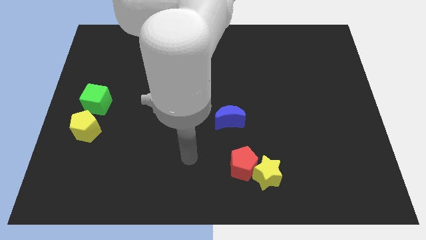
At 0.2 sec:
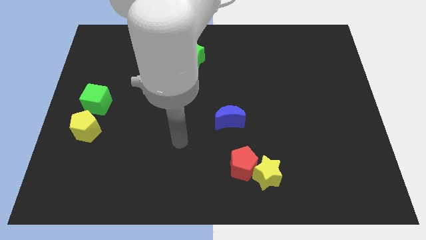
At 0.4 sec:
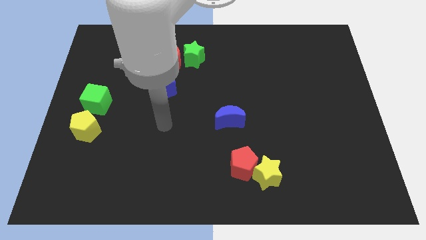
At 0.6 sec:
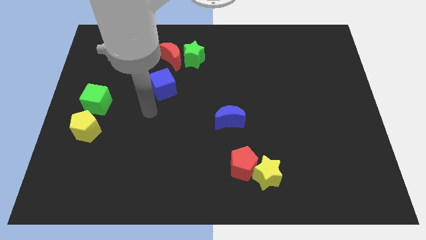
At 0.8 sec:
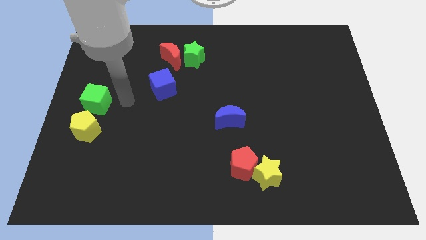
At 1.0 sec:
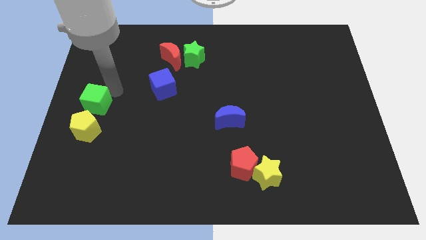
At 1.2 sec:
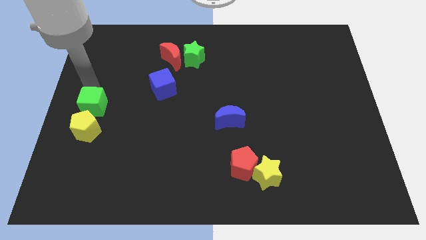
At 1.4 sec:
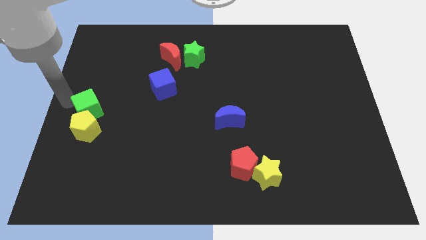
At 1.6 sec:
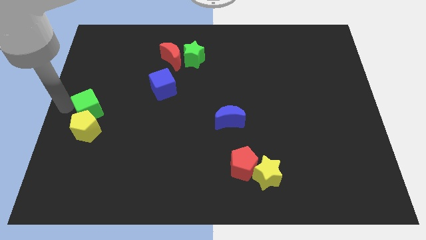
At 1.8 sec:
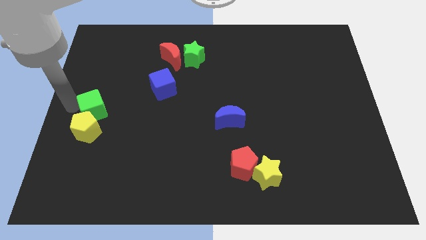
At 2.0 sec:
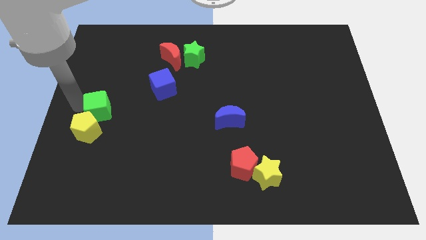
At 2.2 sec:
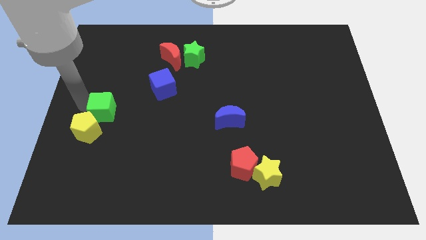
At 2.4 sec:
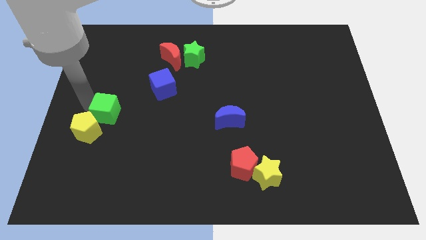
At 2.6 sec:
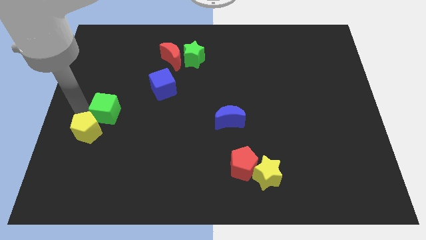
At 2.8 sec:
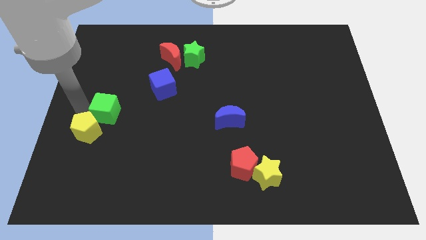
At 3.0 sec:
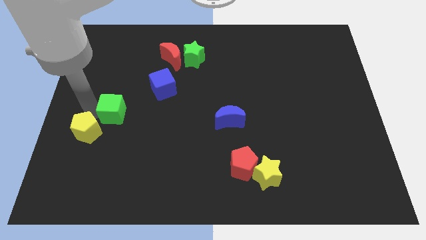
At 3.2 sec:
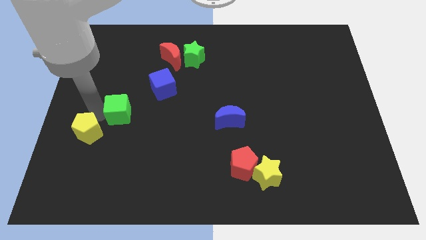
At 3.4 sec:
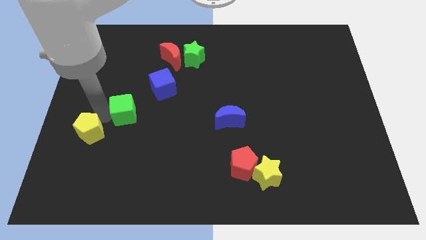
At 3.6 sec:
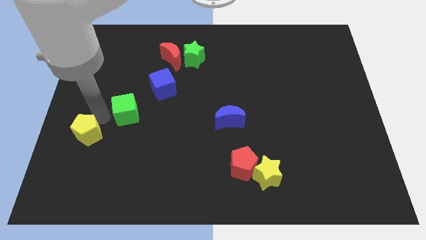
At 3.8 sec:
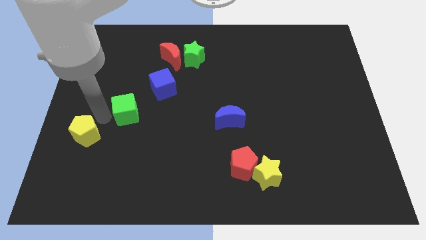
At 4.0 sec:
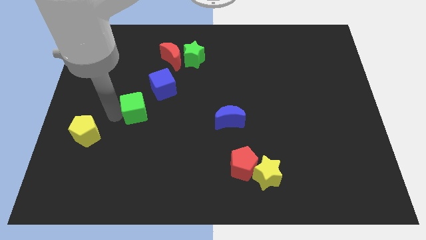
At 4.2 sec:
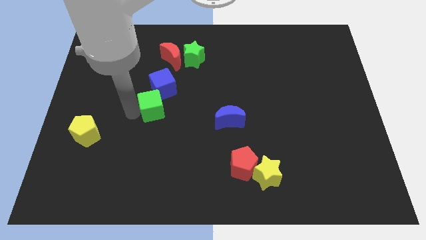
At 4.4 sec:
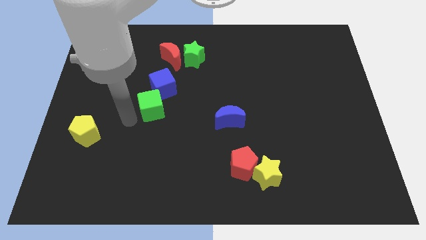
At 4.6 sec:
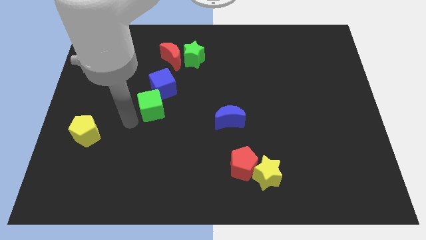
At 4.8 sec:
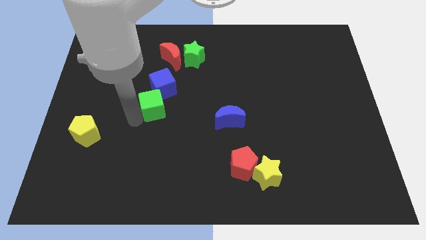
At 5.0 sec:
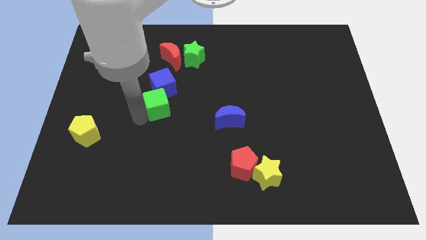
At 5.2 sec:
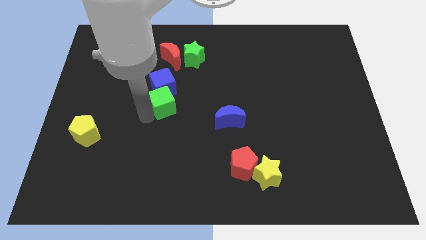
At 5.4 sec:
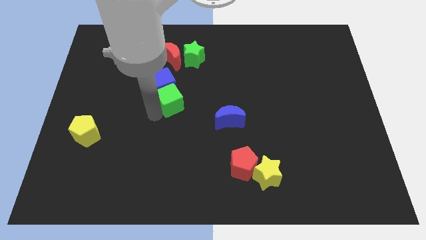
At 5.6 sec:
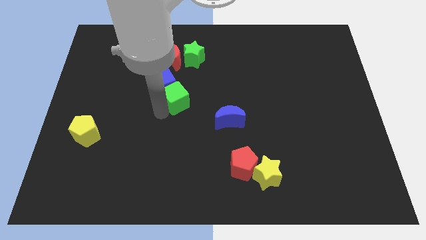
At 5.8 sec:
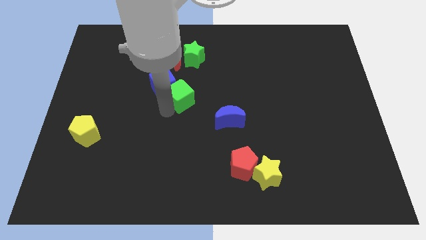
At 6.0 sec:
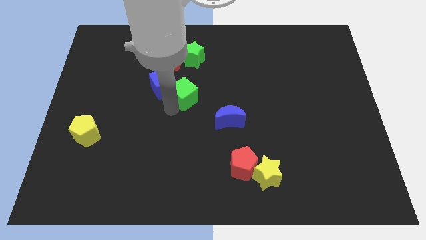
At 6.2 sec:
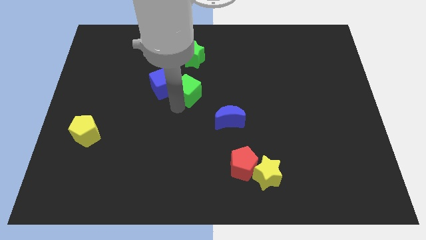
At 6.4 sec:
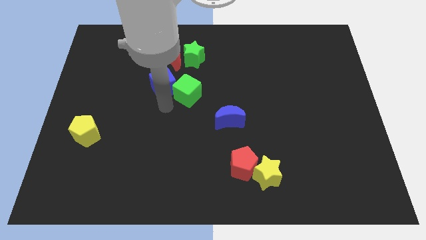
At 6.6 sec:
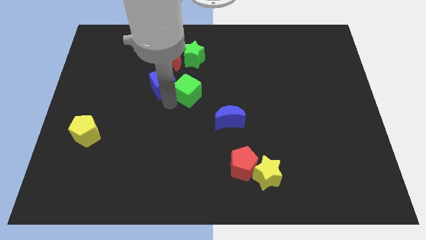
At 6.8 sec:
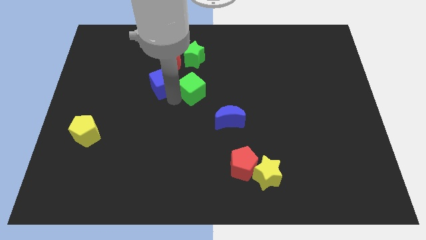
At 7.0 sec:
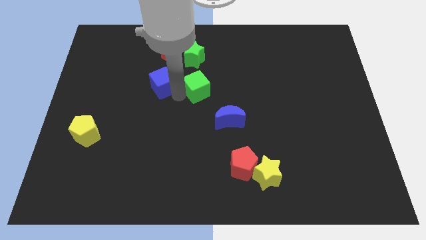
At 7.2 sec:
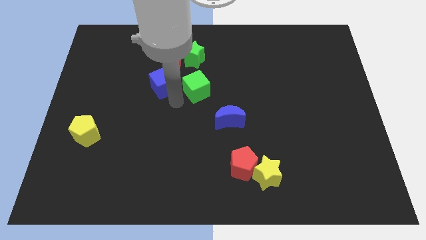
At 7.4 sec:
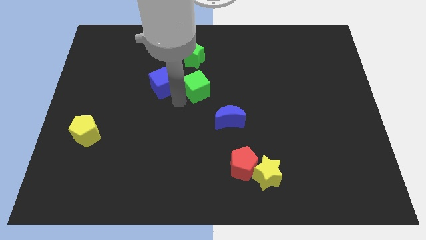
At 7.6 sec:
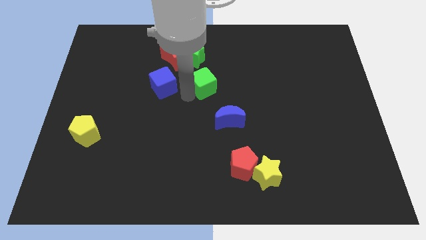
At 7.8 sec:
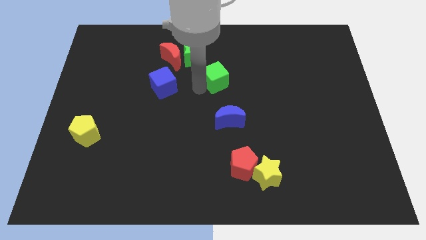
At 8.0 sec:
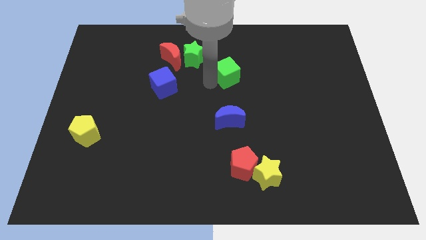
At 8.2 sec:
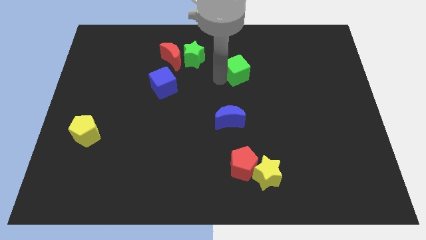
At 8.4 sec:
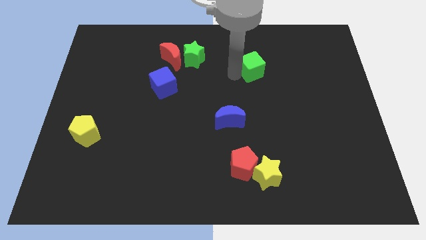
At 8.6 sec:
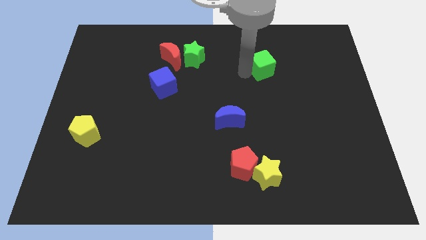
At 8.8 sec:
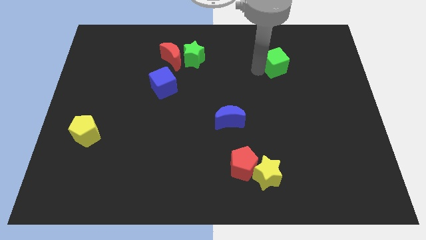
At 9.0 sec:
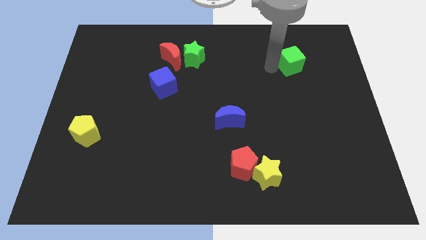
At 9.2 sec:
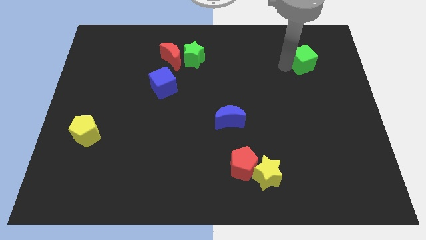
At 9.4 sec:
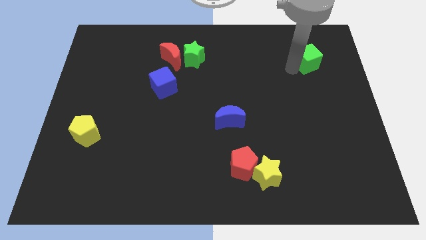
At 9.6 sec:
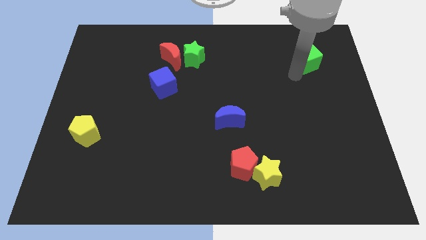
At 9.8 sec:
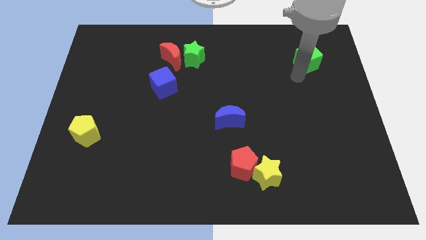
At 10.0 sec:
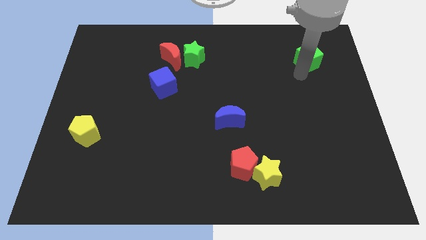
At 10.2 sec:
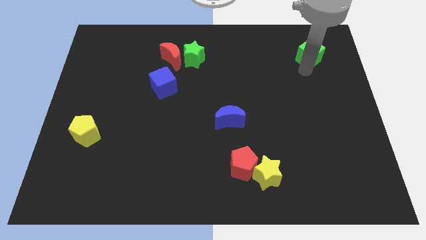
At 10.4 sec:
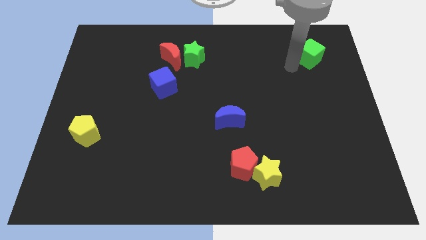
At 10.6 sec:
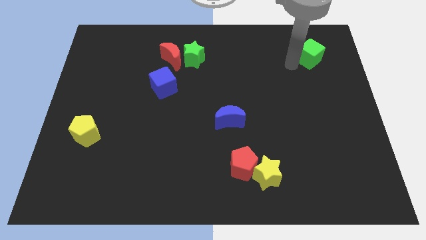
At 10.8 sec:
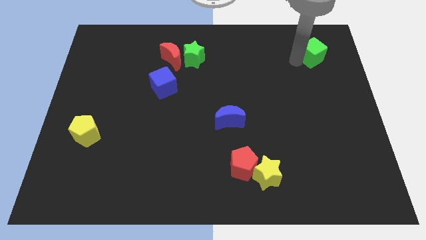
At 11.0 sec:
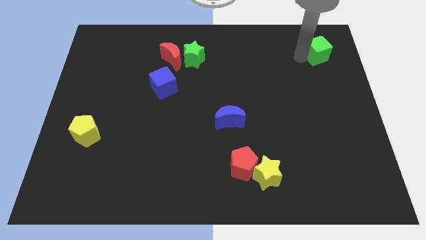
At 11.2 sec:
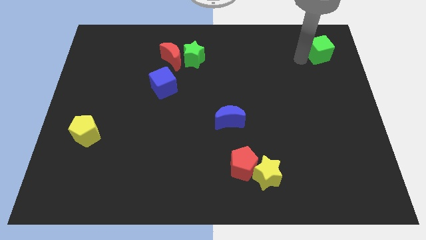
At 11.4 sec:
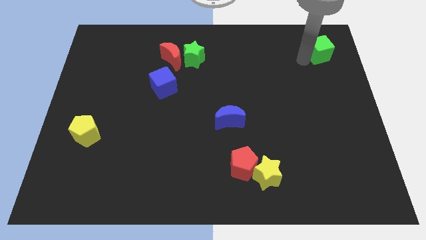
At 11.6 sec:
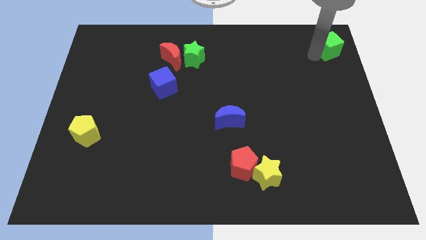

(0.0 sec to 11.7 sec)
slide the green cube to the top right

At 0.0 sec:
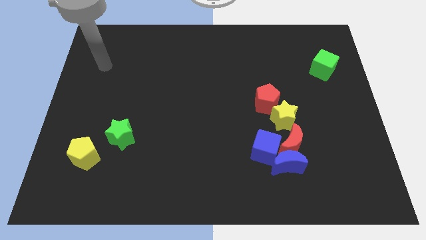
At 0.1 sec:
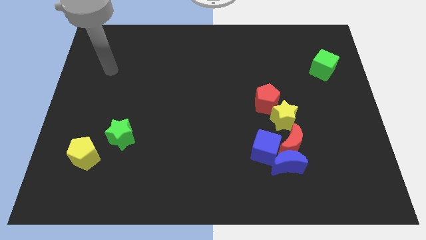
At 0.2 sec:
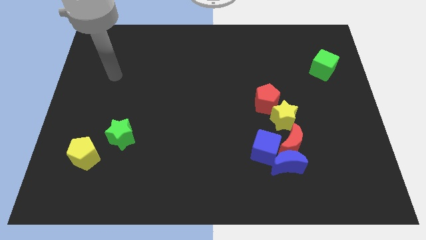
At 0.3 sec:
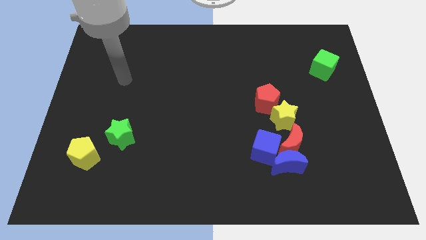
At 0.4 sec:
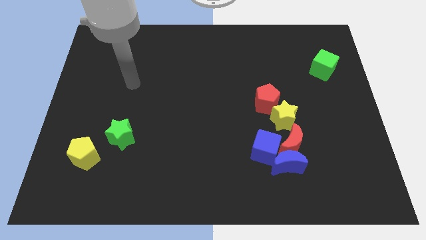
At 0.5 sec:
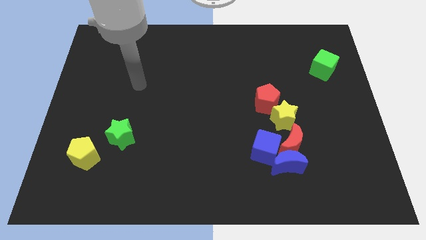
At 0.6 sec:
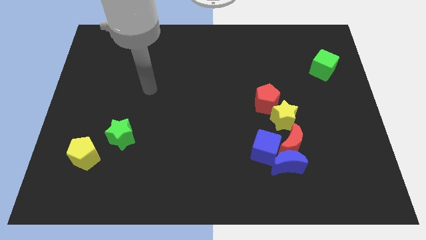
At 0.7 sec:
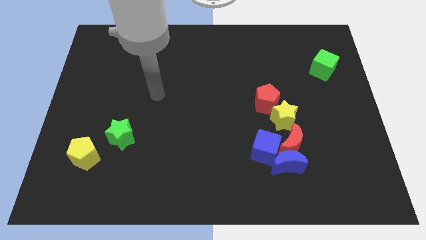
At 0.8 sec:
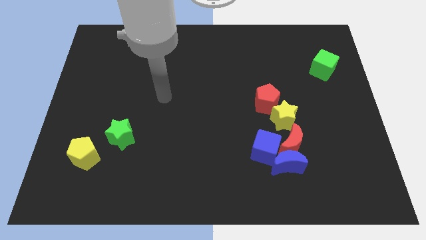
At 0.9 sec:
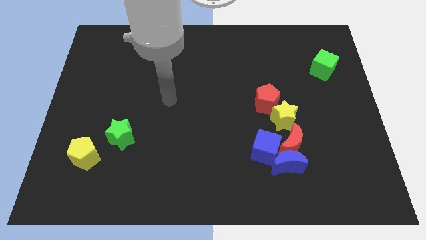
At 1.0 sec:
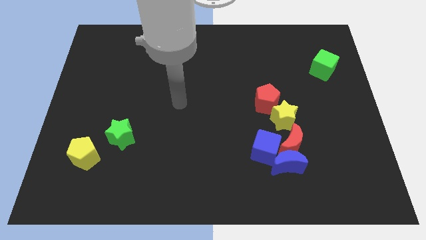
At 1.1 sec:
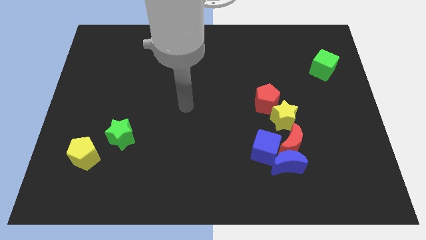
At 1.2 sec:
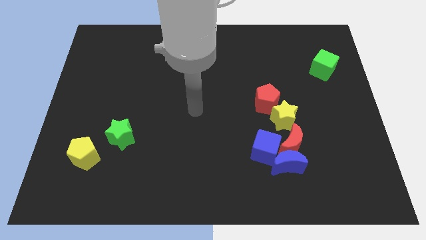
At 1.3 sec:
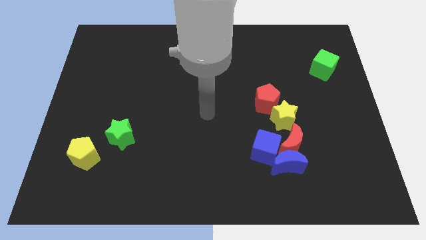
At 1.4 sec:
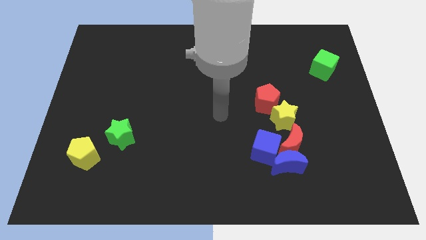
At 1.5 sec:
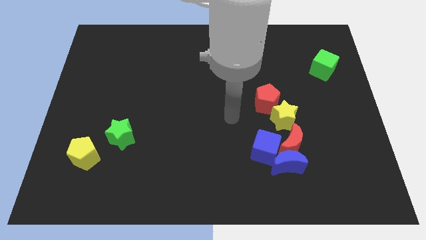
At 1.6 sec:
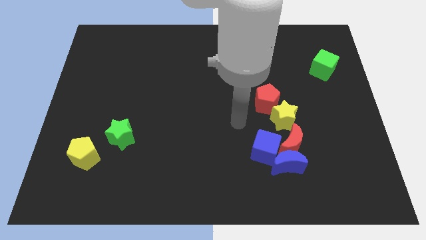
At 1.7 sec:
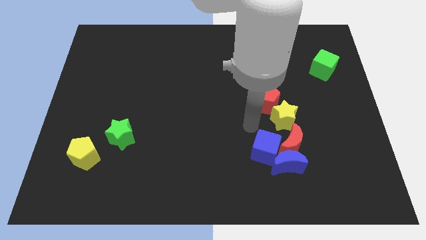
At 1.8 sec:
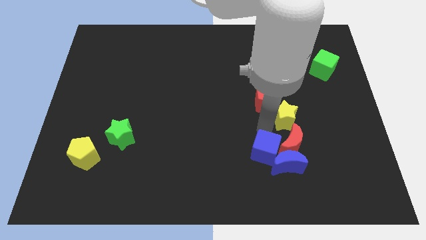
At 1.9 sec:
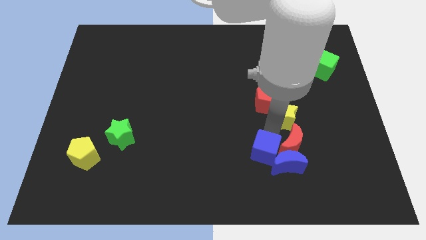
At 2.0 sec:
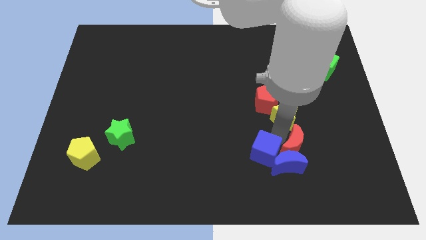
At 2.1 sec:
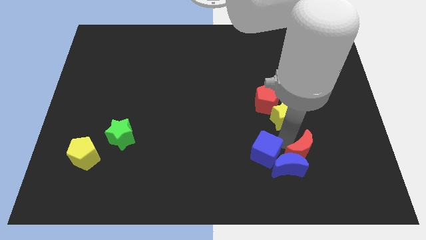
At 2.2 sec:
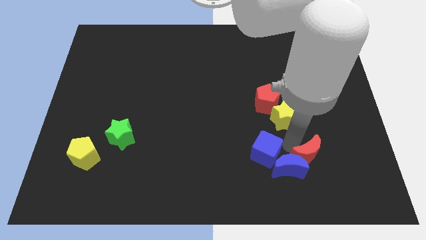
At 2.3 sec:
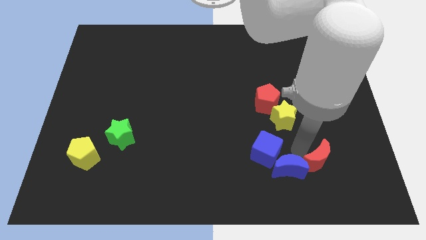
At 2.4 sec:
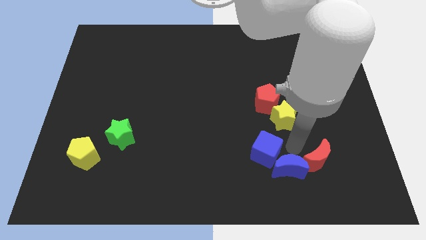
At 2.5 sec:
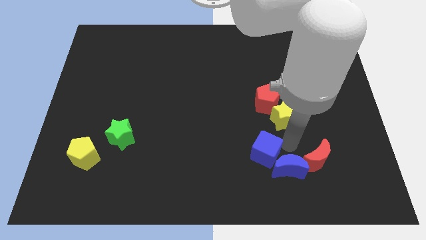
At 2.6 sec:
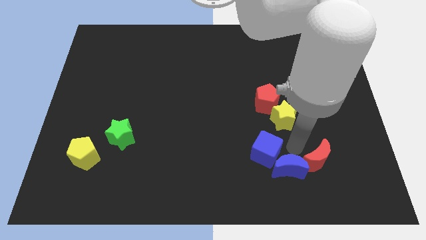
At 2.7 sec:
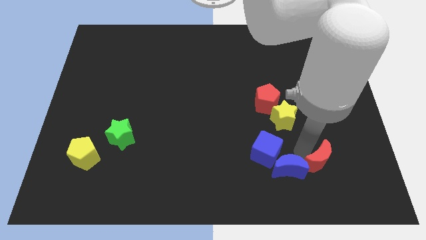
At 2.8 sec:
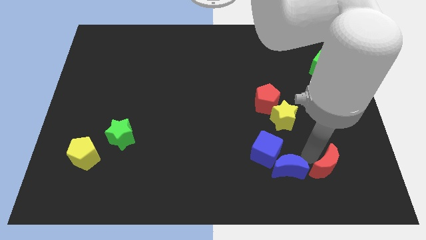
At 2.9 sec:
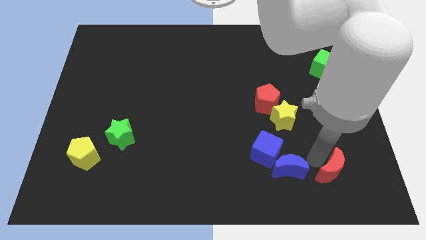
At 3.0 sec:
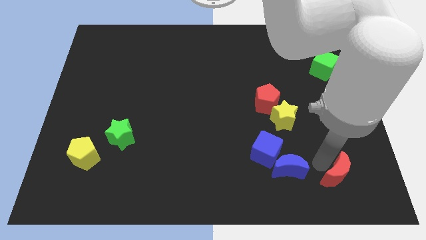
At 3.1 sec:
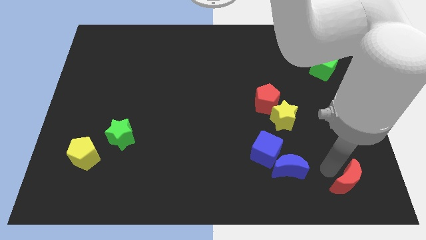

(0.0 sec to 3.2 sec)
put the red moon to the bottom right
